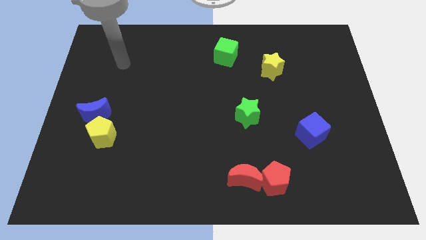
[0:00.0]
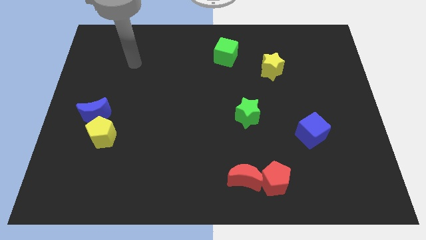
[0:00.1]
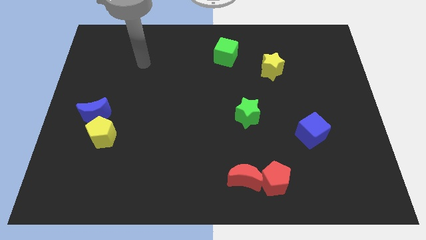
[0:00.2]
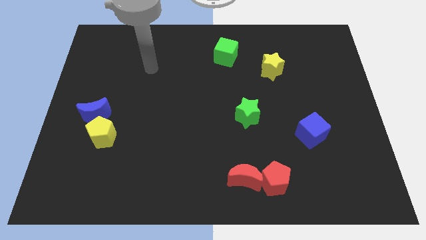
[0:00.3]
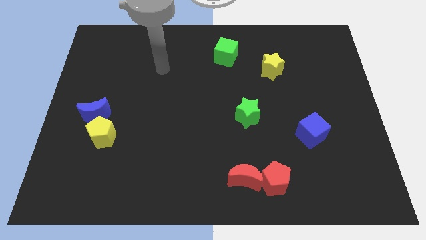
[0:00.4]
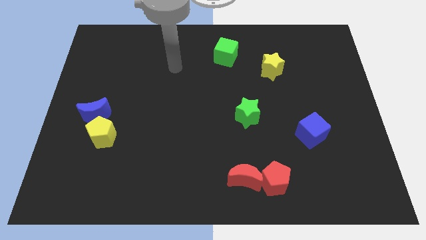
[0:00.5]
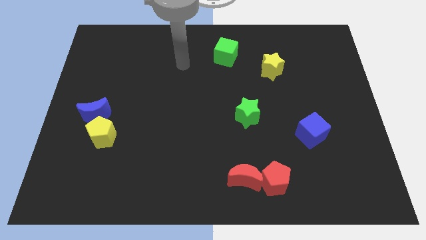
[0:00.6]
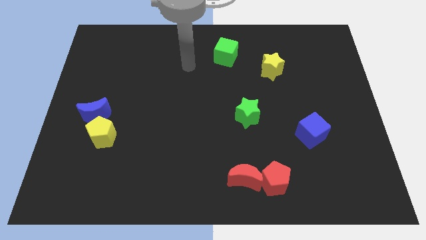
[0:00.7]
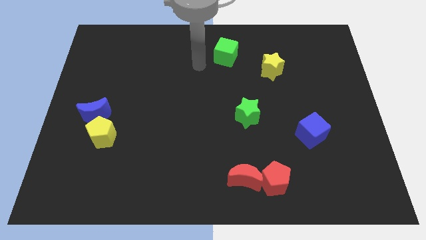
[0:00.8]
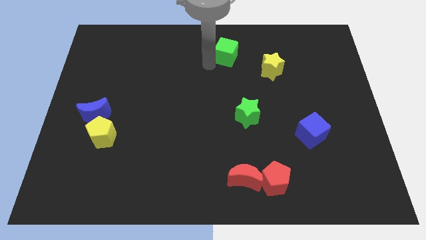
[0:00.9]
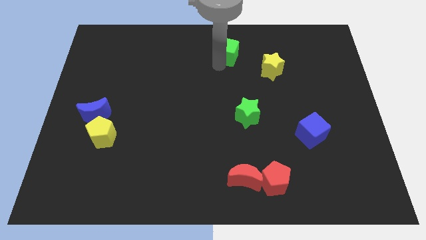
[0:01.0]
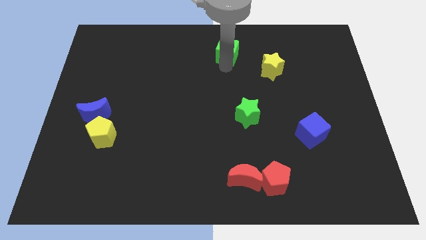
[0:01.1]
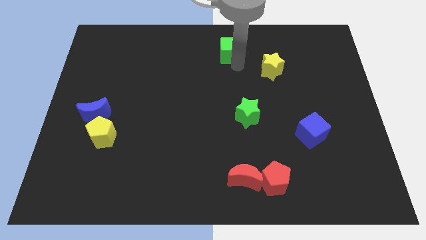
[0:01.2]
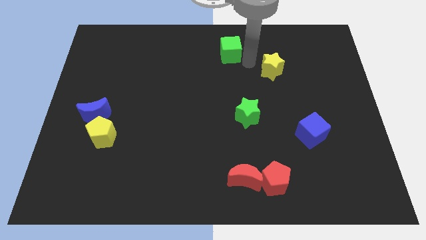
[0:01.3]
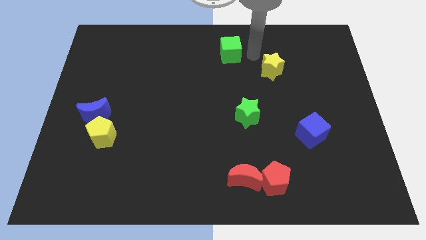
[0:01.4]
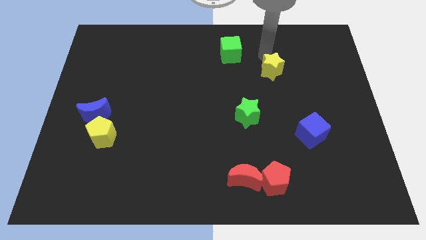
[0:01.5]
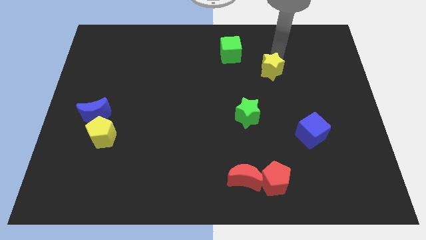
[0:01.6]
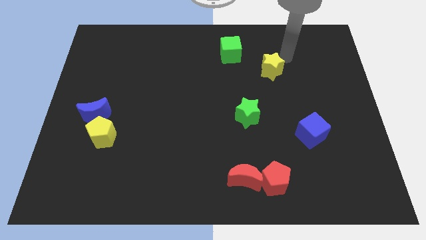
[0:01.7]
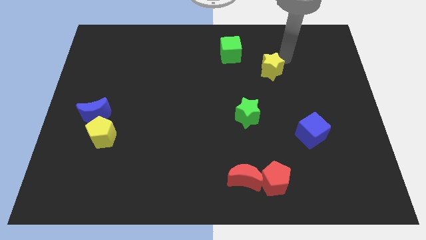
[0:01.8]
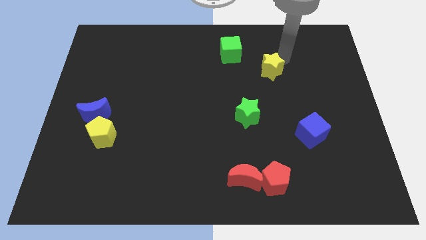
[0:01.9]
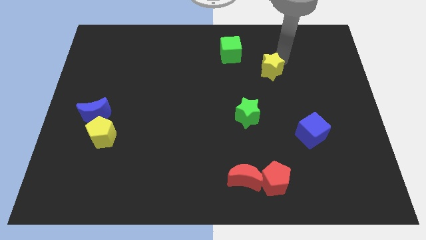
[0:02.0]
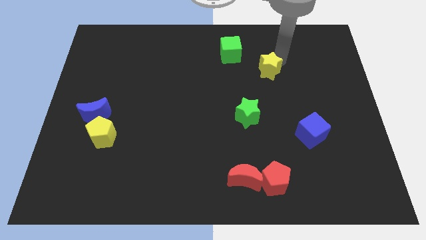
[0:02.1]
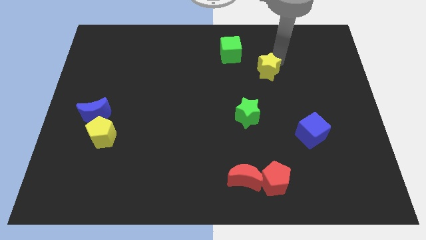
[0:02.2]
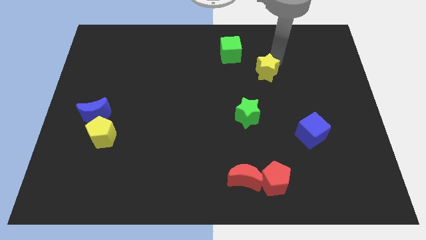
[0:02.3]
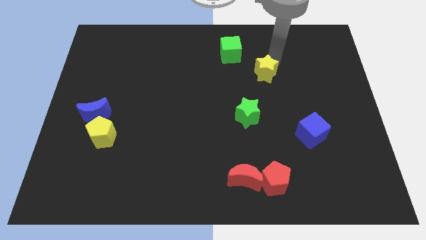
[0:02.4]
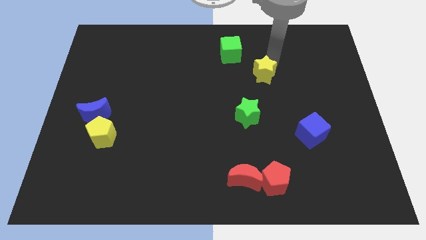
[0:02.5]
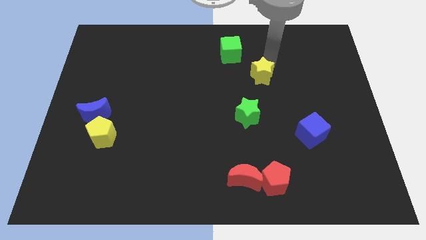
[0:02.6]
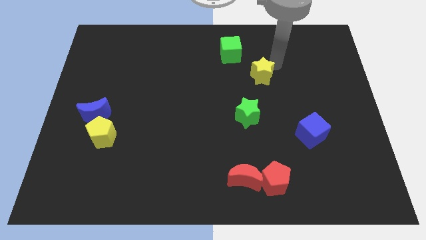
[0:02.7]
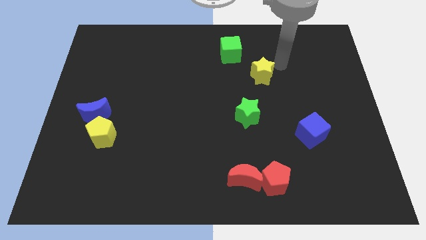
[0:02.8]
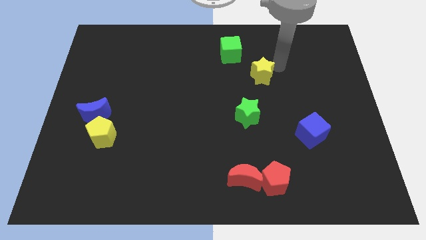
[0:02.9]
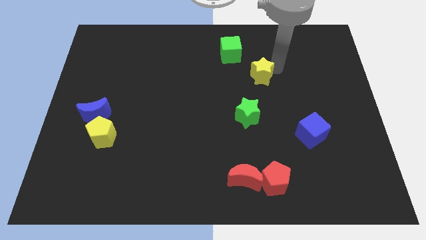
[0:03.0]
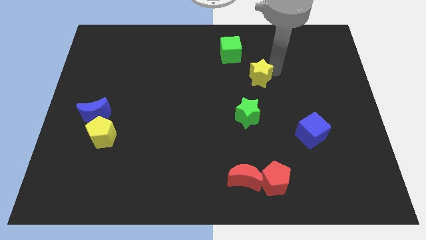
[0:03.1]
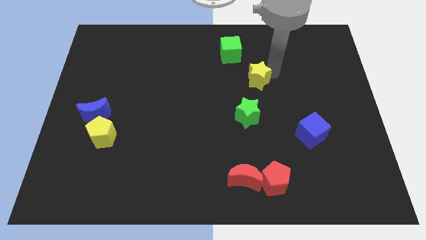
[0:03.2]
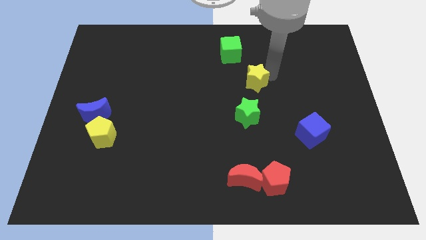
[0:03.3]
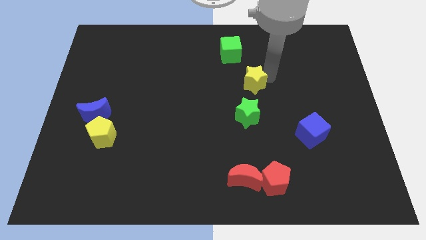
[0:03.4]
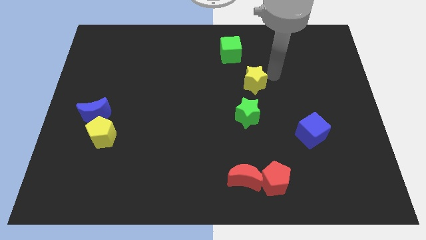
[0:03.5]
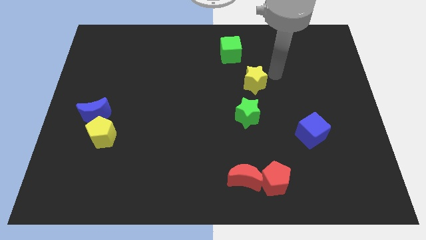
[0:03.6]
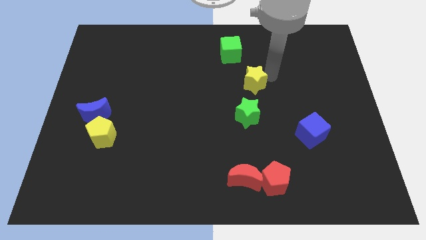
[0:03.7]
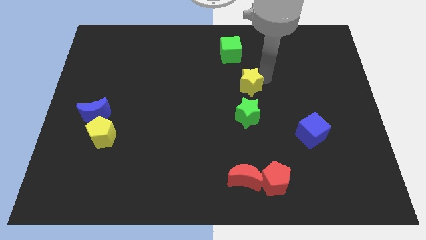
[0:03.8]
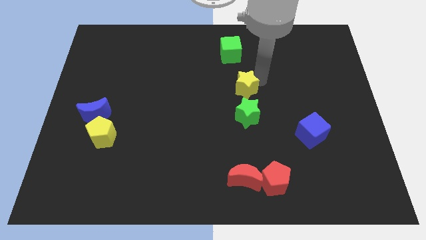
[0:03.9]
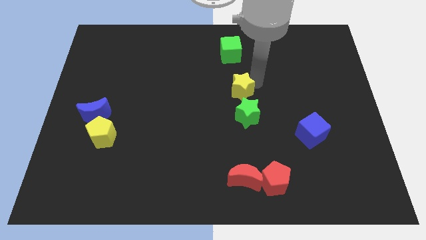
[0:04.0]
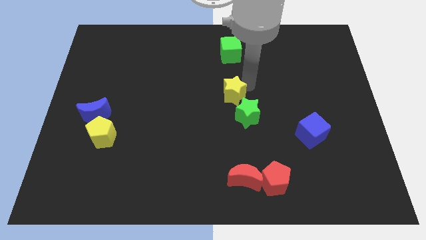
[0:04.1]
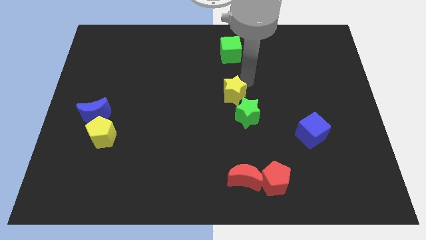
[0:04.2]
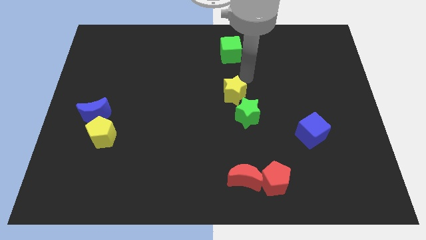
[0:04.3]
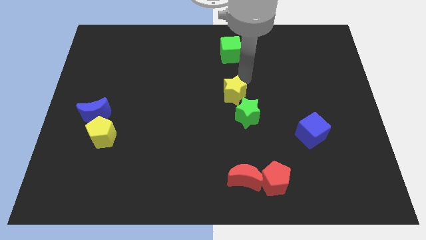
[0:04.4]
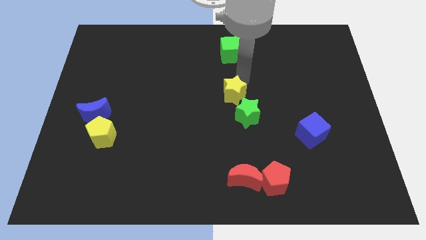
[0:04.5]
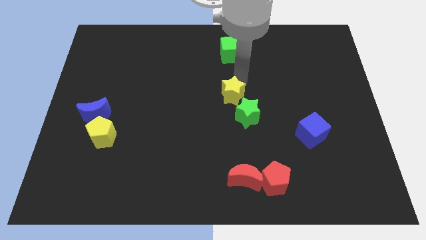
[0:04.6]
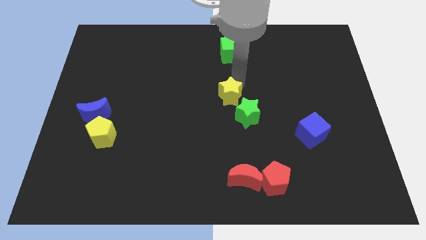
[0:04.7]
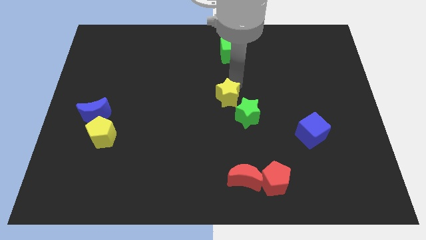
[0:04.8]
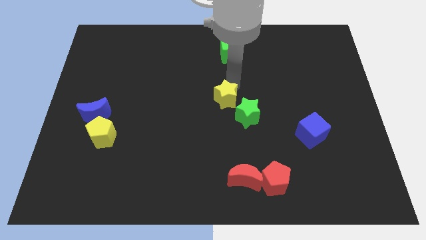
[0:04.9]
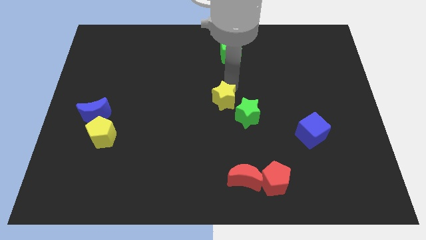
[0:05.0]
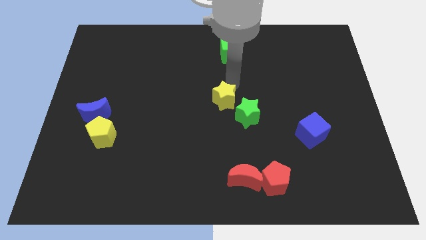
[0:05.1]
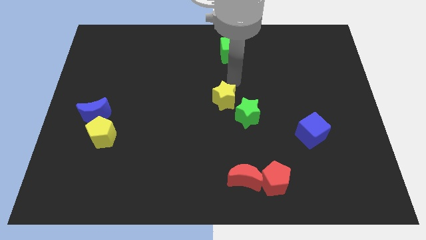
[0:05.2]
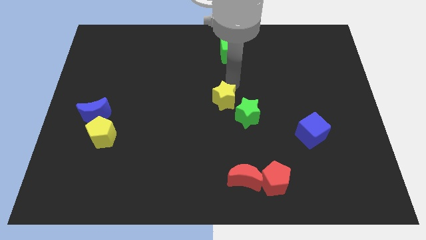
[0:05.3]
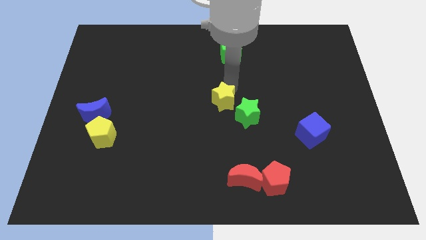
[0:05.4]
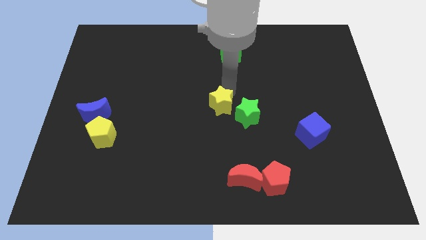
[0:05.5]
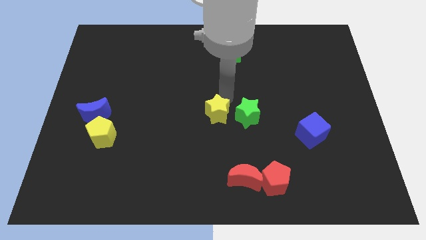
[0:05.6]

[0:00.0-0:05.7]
move the yellow star diagonally down and to the left

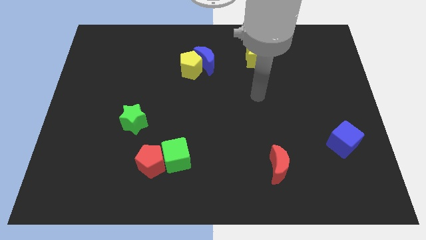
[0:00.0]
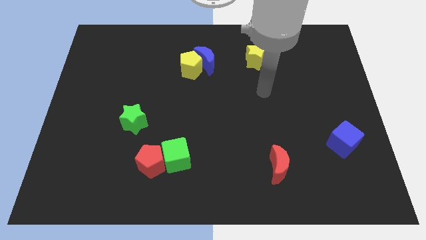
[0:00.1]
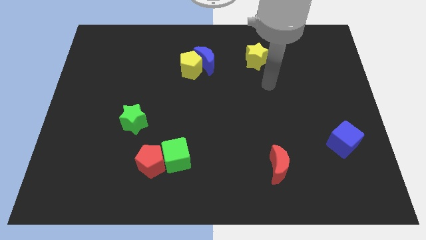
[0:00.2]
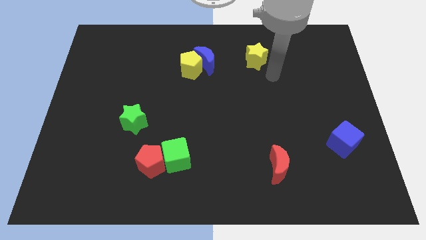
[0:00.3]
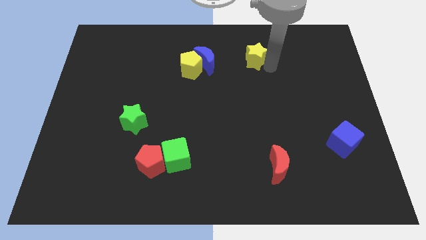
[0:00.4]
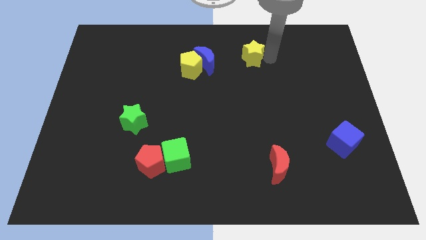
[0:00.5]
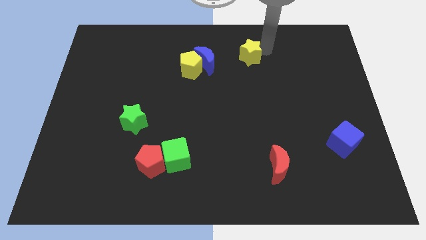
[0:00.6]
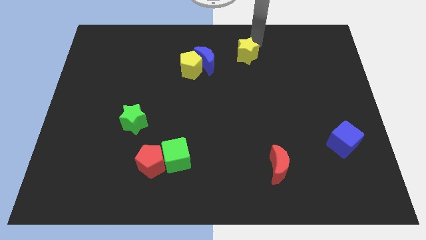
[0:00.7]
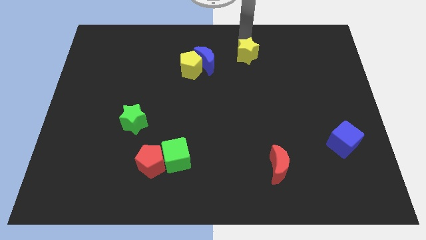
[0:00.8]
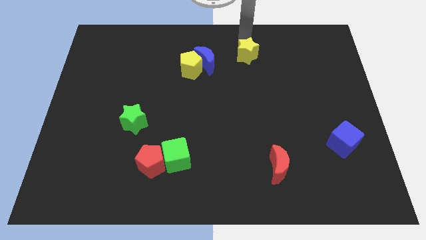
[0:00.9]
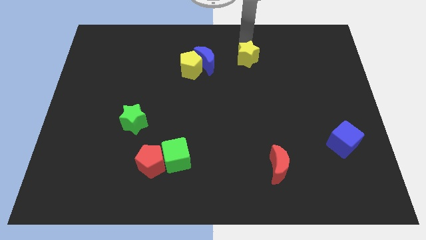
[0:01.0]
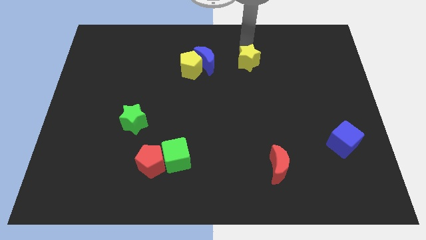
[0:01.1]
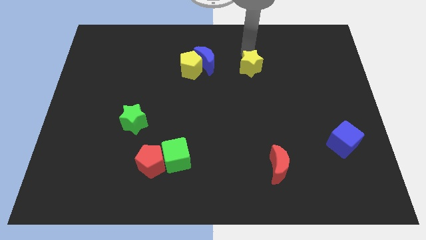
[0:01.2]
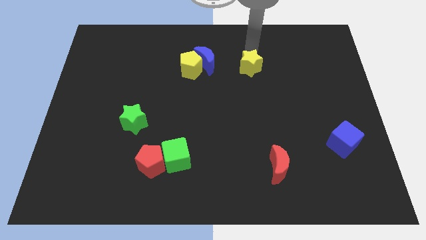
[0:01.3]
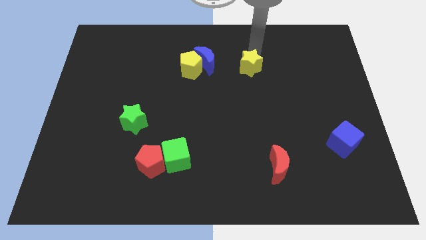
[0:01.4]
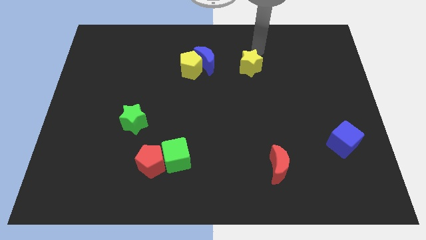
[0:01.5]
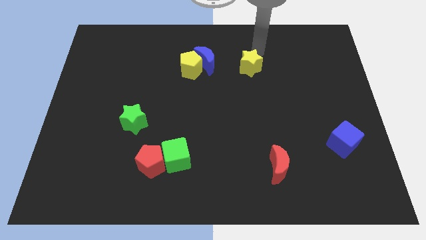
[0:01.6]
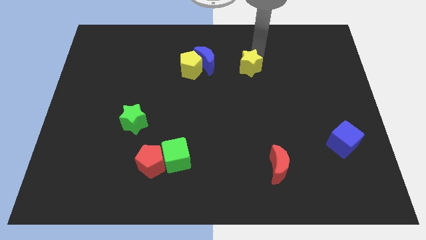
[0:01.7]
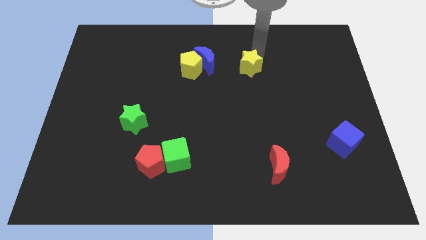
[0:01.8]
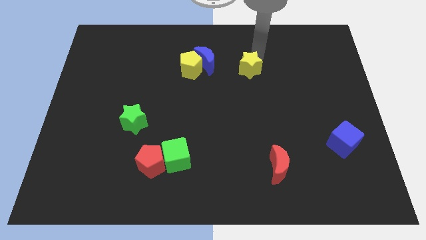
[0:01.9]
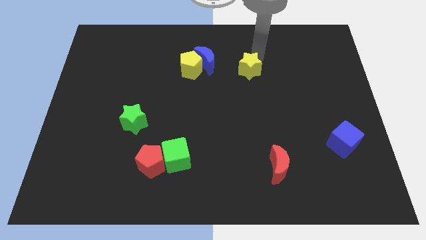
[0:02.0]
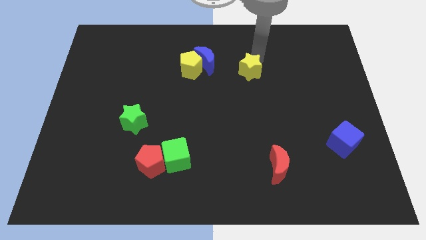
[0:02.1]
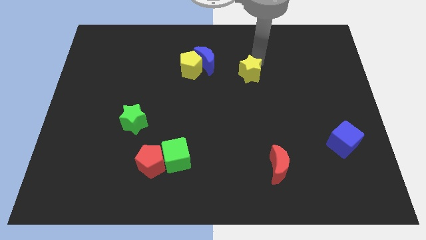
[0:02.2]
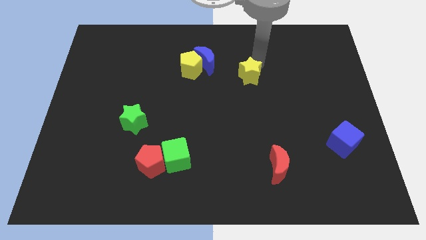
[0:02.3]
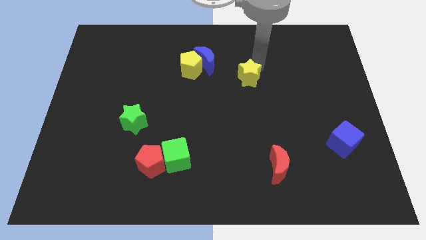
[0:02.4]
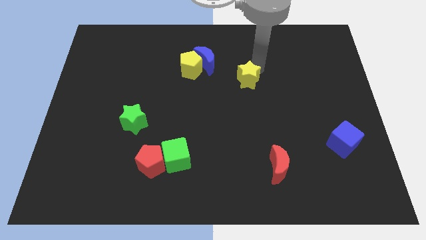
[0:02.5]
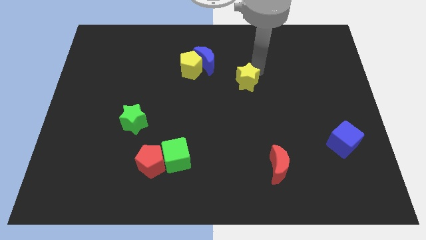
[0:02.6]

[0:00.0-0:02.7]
slide the yellow star down and to the left diagonally a little
